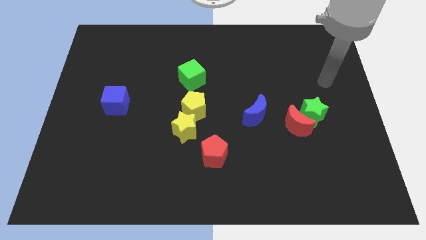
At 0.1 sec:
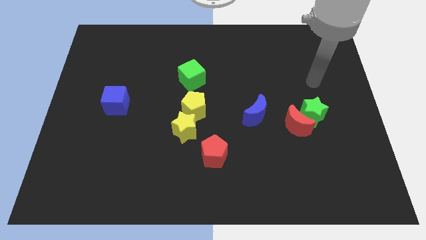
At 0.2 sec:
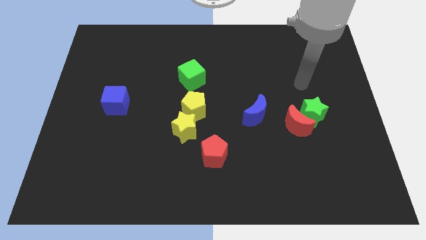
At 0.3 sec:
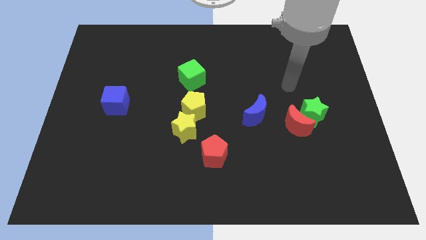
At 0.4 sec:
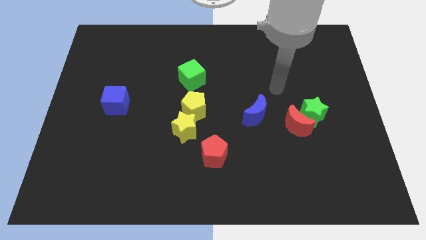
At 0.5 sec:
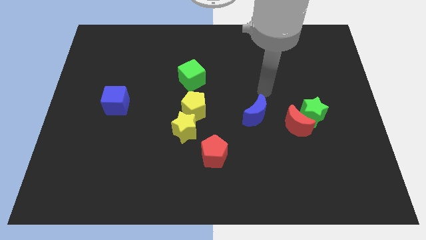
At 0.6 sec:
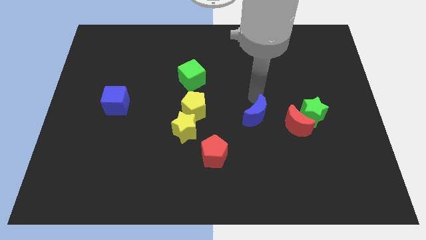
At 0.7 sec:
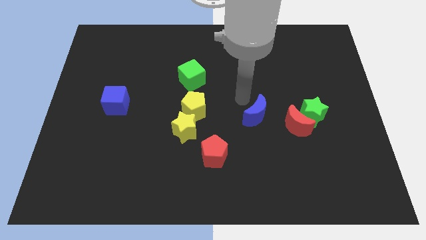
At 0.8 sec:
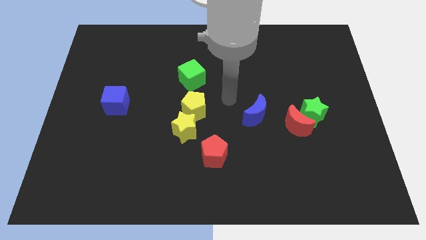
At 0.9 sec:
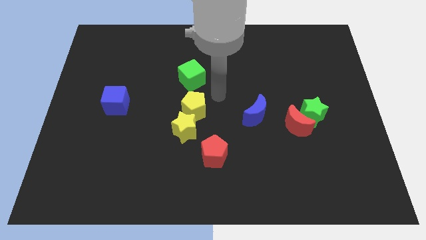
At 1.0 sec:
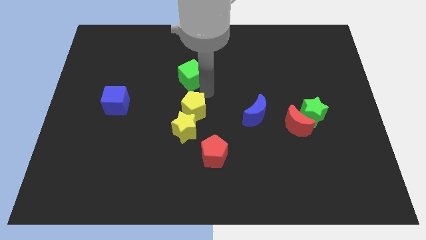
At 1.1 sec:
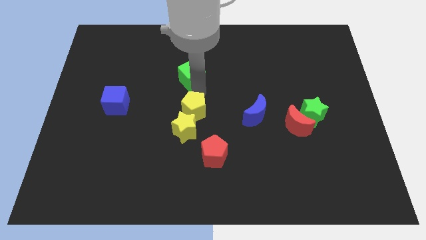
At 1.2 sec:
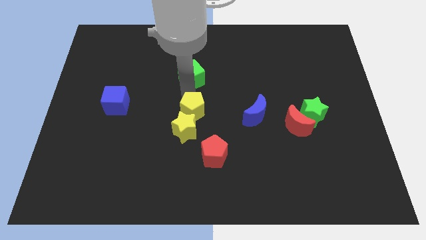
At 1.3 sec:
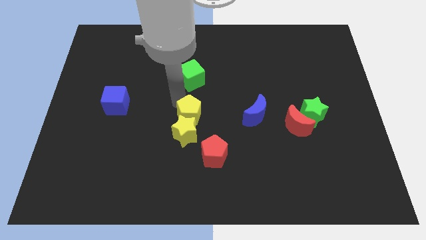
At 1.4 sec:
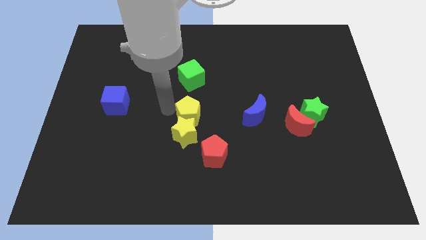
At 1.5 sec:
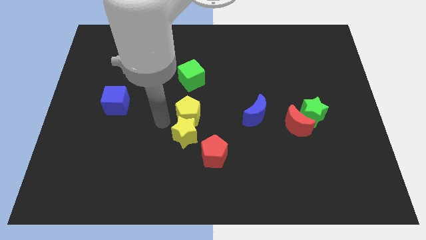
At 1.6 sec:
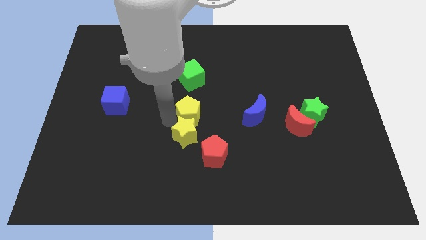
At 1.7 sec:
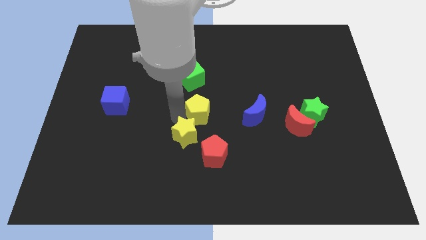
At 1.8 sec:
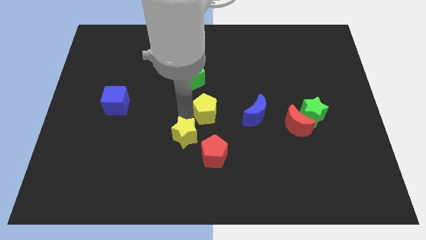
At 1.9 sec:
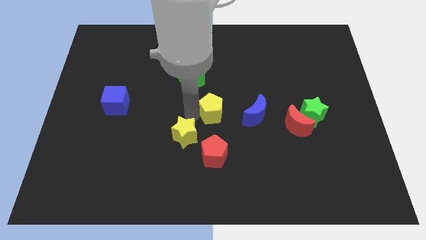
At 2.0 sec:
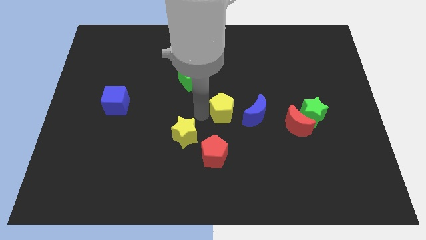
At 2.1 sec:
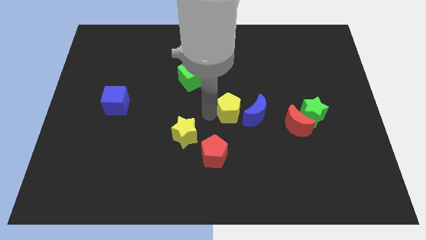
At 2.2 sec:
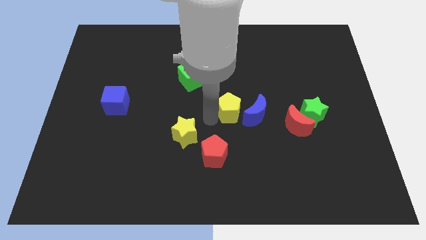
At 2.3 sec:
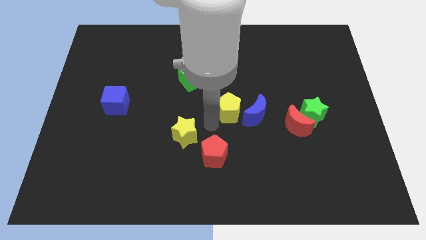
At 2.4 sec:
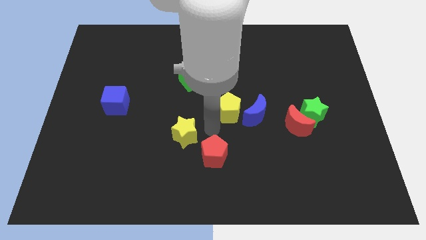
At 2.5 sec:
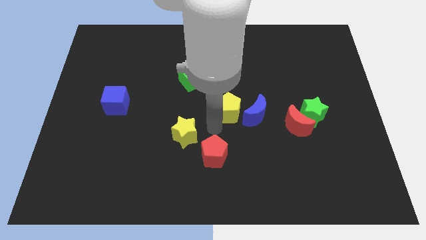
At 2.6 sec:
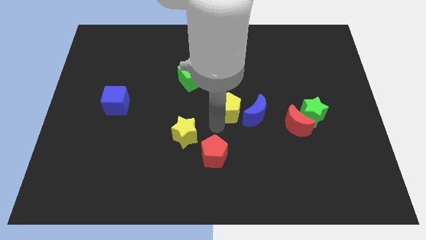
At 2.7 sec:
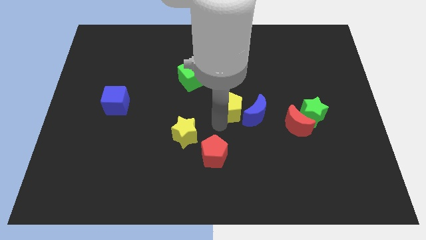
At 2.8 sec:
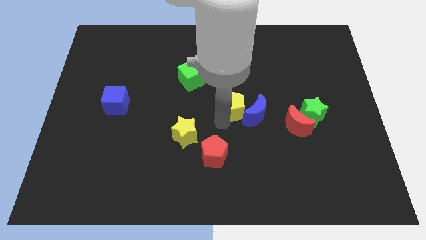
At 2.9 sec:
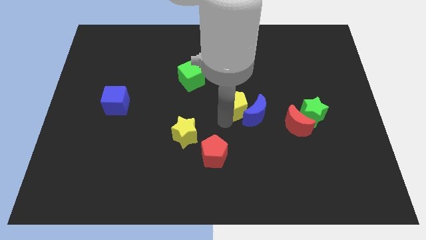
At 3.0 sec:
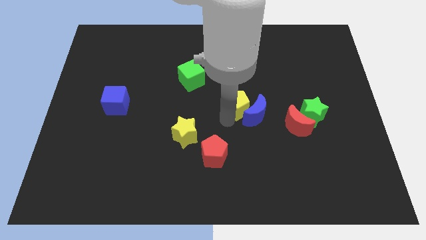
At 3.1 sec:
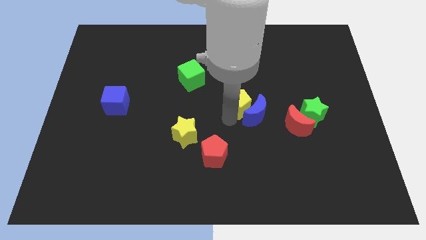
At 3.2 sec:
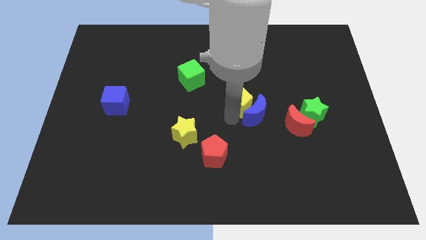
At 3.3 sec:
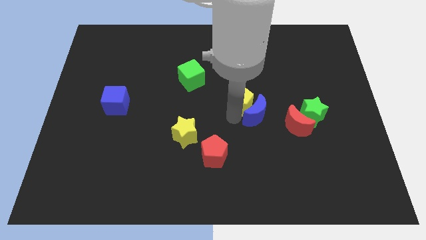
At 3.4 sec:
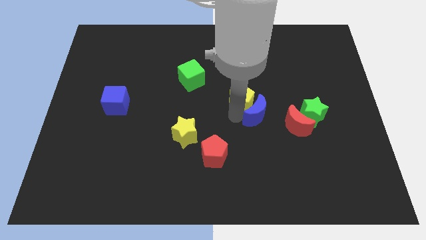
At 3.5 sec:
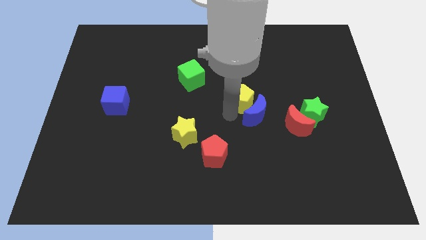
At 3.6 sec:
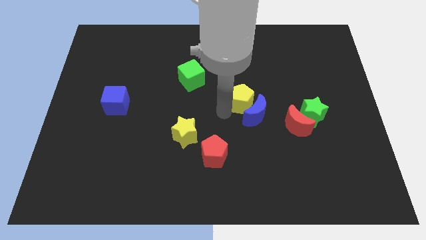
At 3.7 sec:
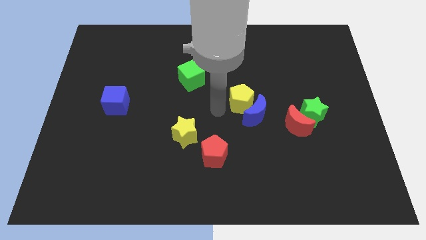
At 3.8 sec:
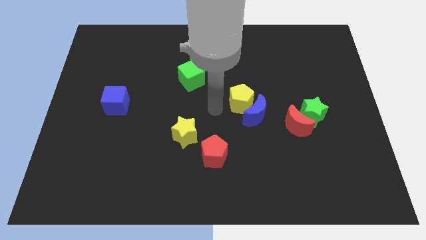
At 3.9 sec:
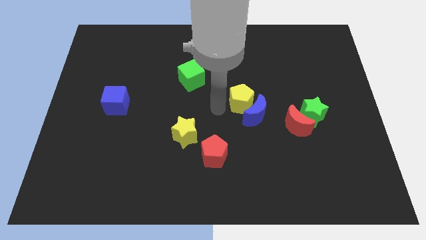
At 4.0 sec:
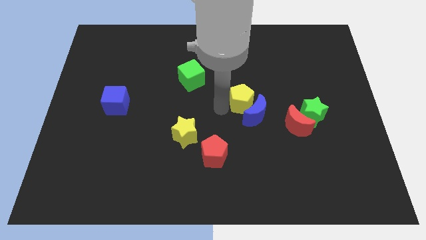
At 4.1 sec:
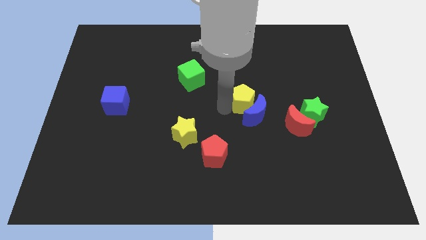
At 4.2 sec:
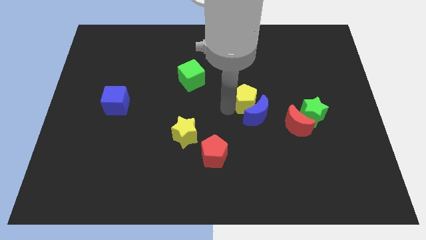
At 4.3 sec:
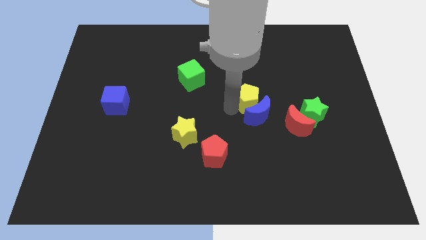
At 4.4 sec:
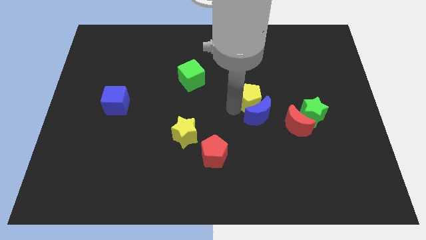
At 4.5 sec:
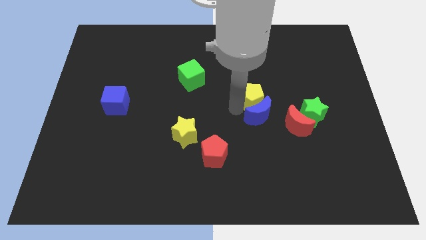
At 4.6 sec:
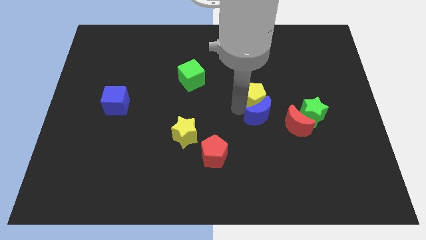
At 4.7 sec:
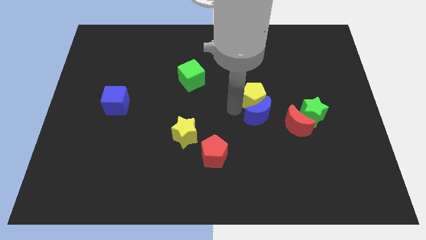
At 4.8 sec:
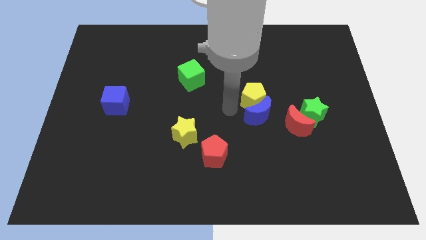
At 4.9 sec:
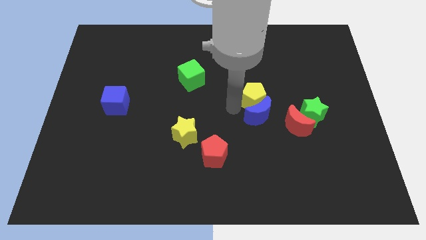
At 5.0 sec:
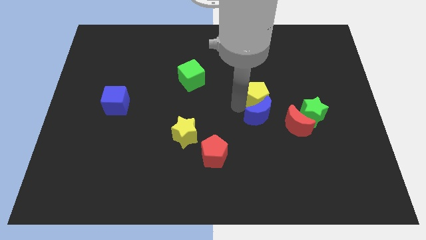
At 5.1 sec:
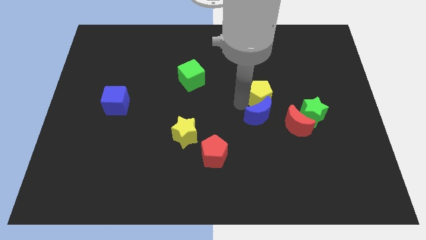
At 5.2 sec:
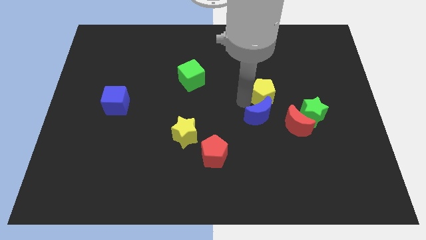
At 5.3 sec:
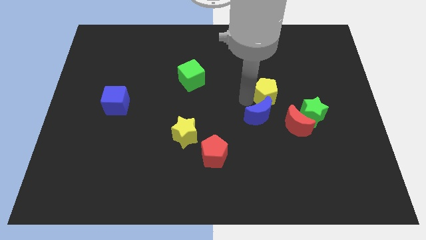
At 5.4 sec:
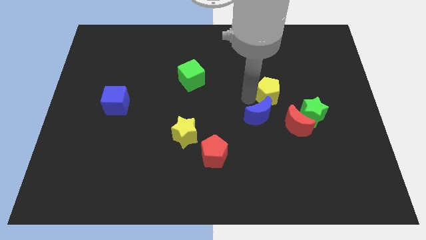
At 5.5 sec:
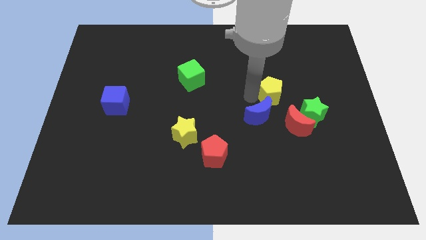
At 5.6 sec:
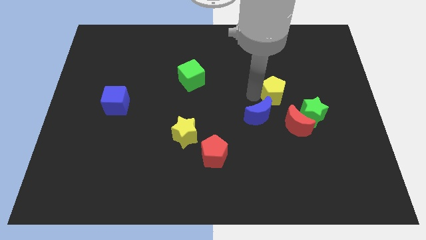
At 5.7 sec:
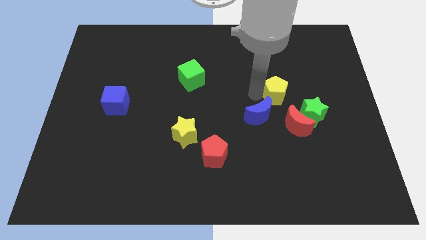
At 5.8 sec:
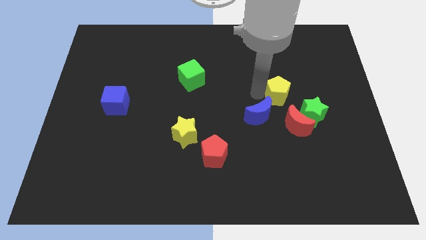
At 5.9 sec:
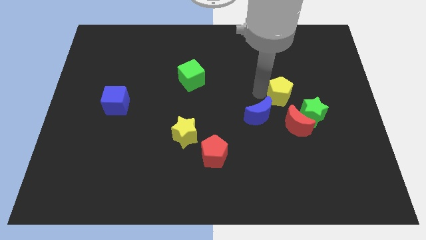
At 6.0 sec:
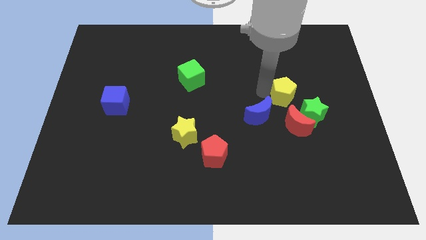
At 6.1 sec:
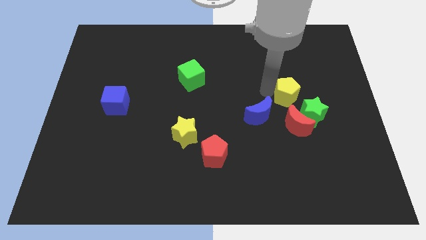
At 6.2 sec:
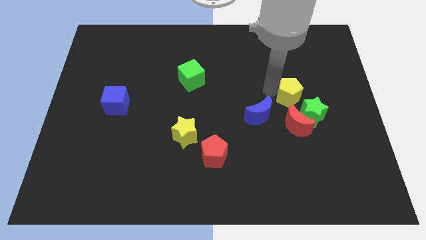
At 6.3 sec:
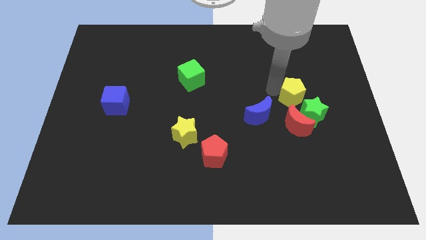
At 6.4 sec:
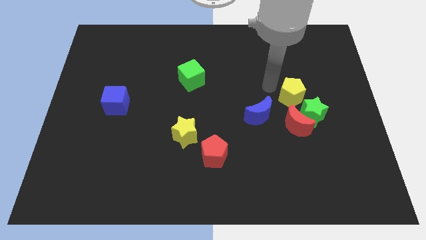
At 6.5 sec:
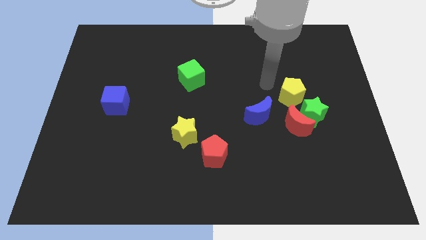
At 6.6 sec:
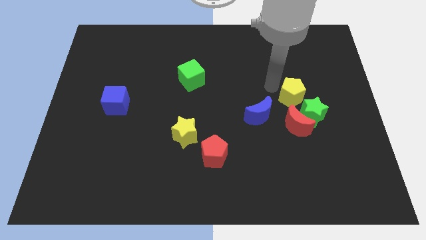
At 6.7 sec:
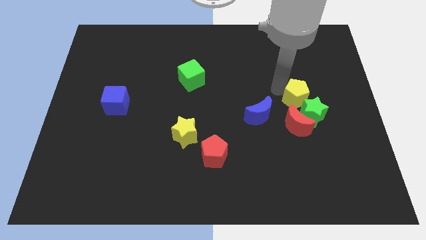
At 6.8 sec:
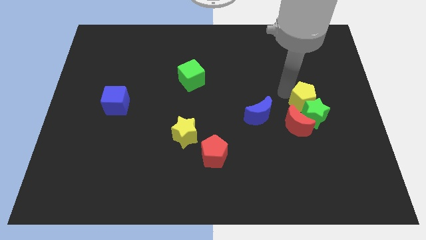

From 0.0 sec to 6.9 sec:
put the yellow pentagon to the top right of the red moon
